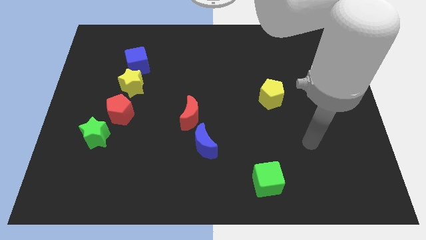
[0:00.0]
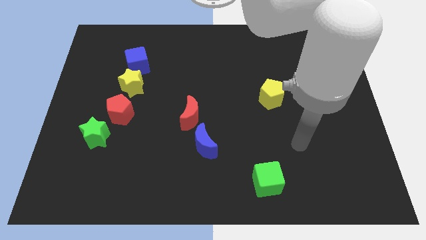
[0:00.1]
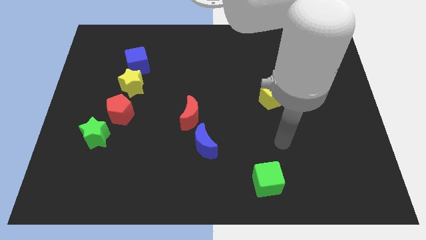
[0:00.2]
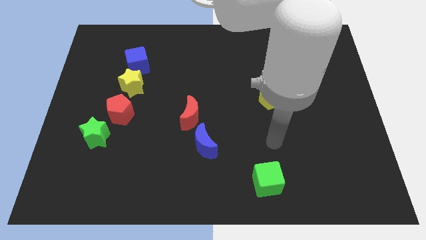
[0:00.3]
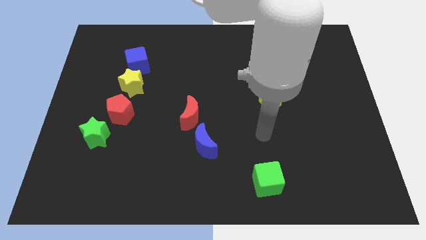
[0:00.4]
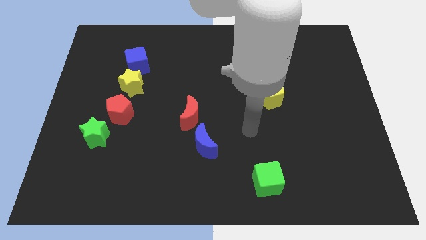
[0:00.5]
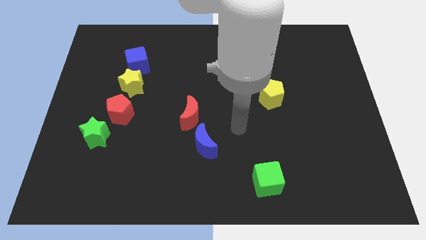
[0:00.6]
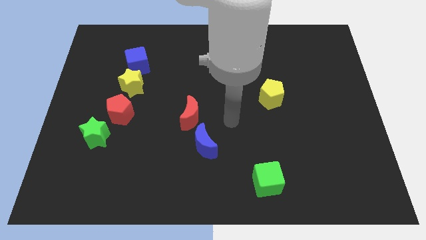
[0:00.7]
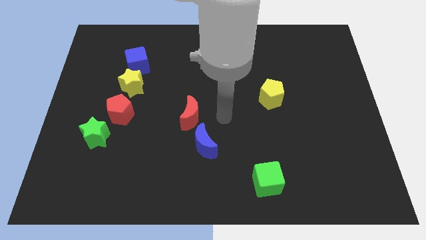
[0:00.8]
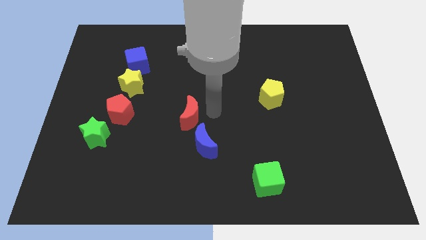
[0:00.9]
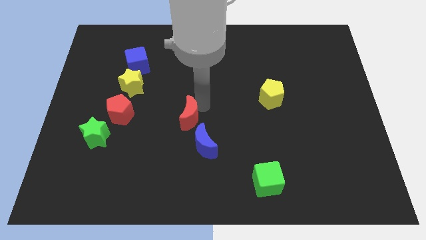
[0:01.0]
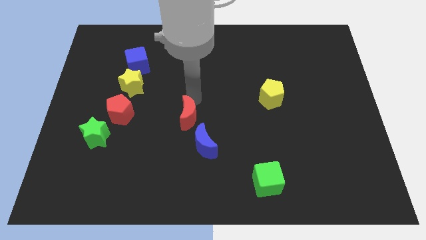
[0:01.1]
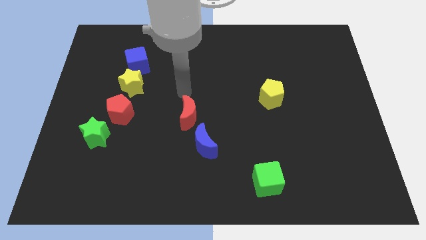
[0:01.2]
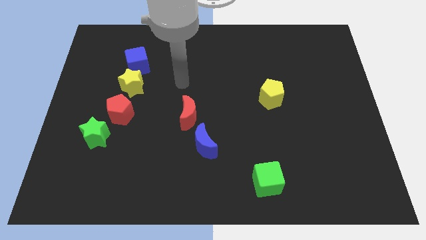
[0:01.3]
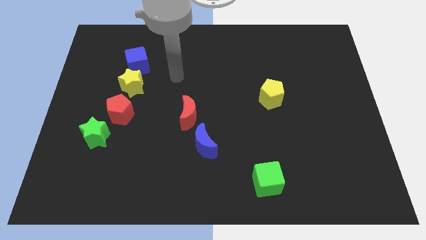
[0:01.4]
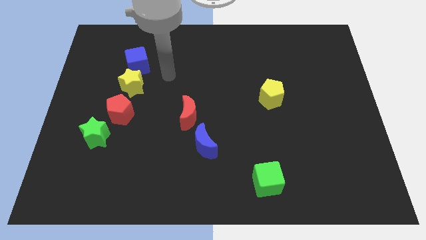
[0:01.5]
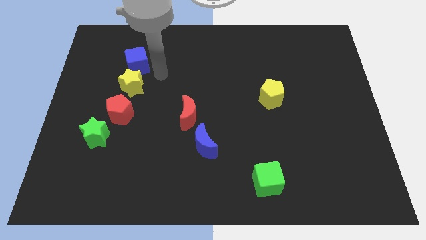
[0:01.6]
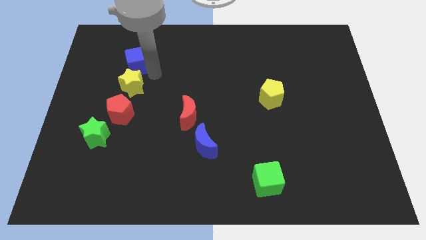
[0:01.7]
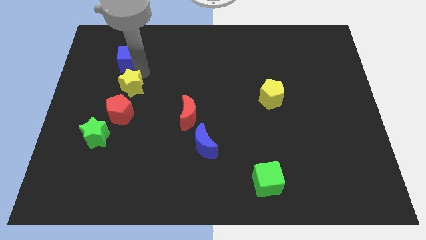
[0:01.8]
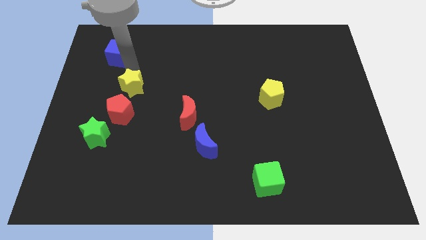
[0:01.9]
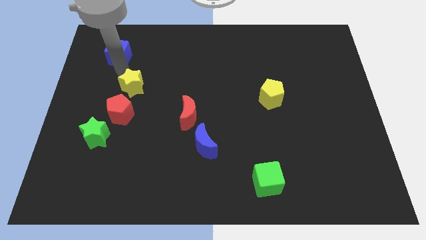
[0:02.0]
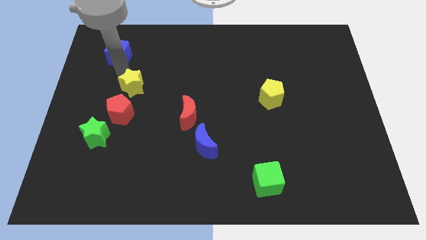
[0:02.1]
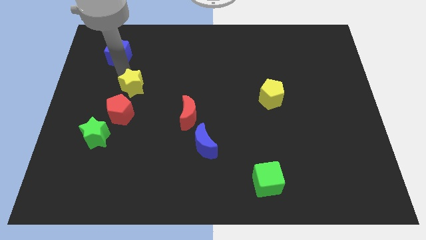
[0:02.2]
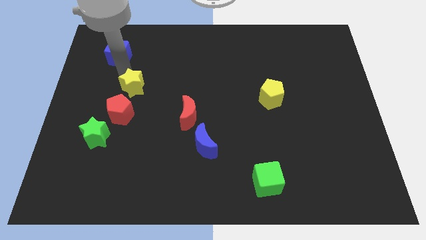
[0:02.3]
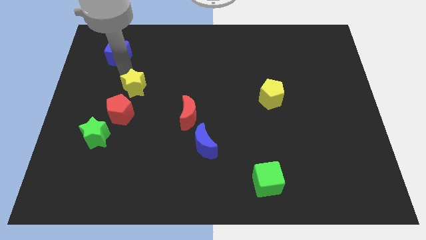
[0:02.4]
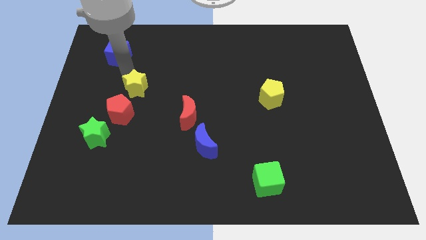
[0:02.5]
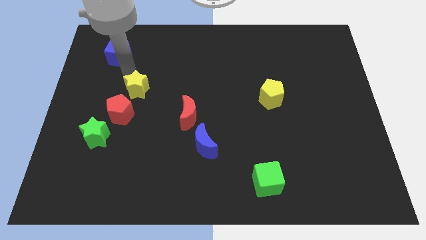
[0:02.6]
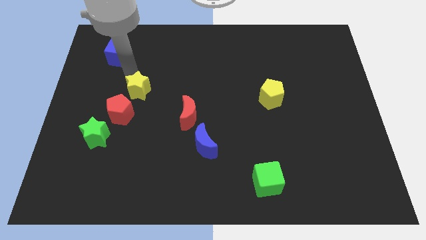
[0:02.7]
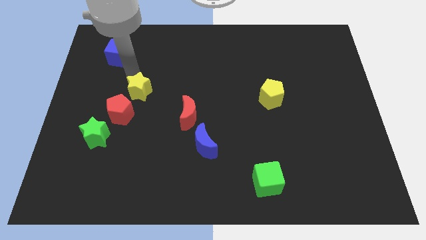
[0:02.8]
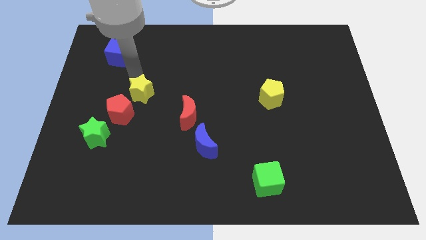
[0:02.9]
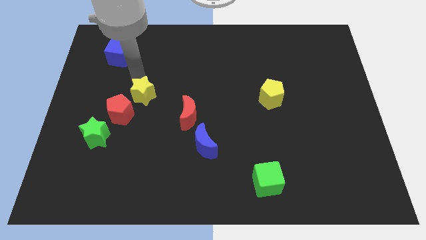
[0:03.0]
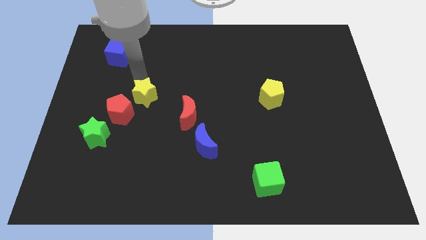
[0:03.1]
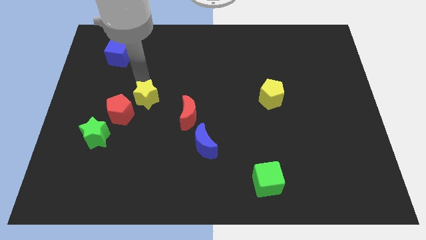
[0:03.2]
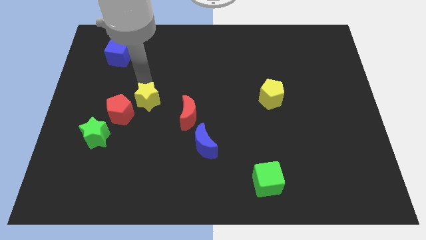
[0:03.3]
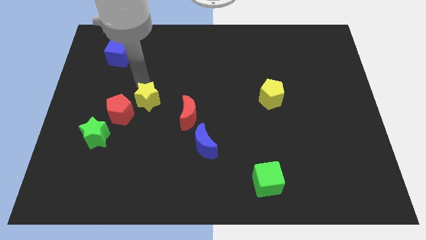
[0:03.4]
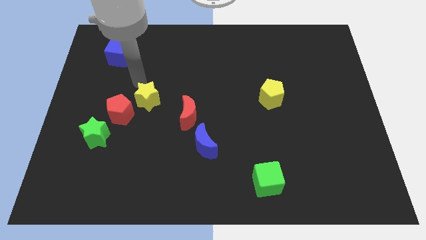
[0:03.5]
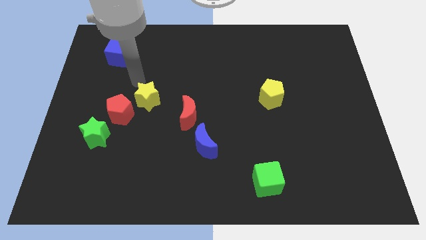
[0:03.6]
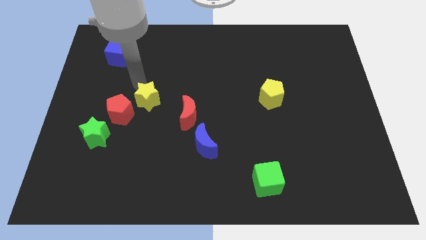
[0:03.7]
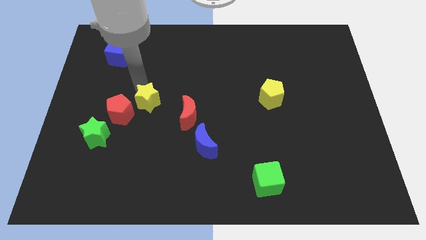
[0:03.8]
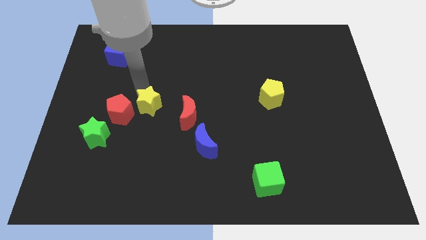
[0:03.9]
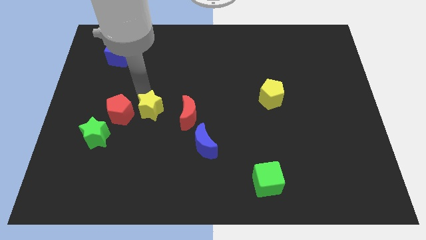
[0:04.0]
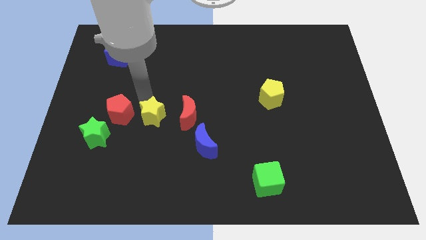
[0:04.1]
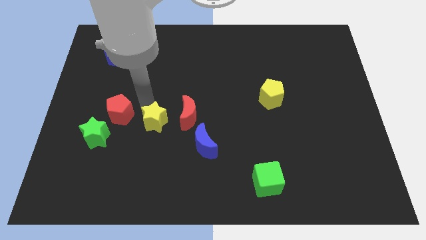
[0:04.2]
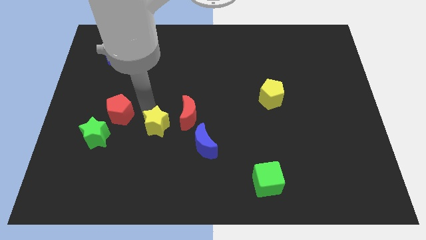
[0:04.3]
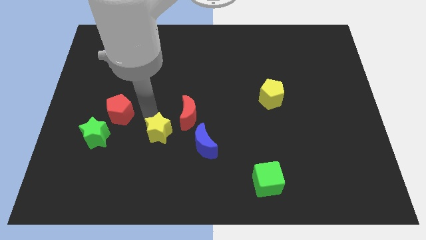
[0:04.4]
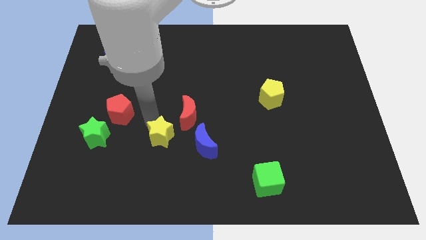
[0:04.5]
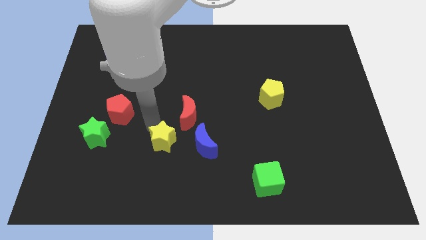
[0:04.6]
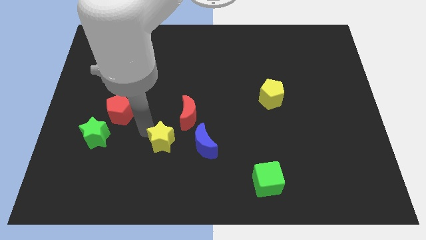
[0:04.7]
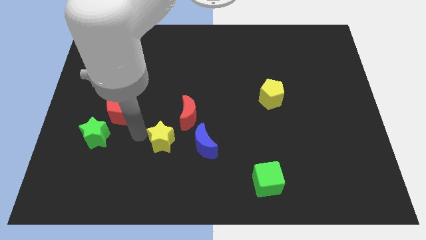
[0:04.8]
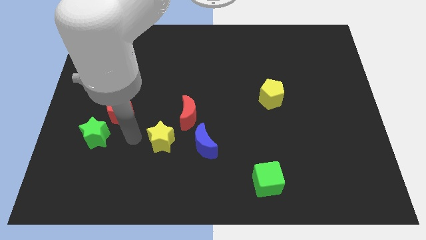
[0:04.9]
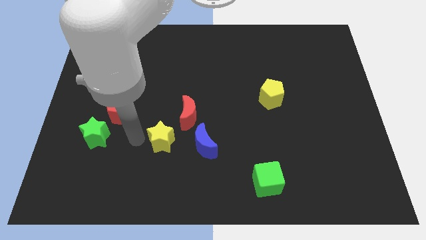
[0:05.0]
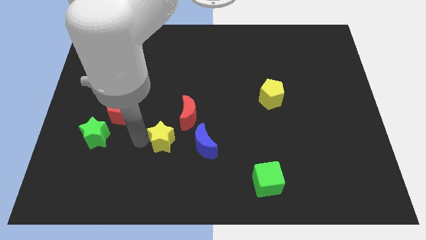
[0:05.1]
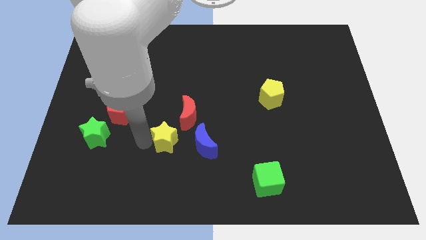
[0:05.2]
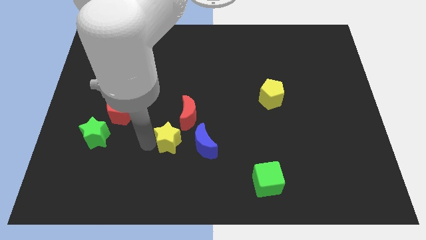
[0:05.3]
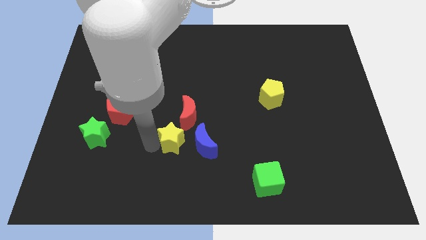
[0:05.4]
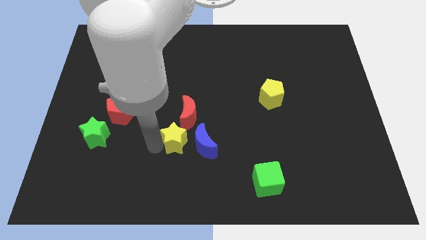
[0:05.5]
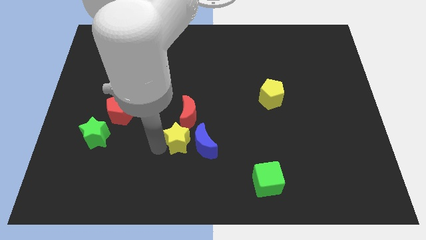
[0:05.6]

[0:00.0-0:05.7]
push the yellow star to the blue moon

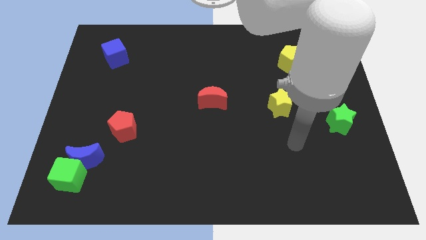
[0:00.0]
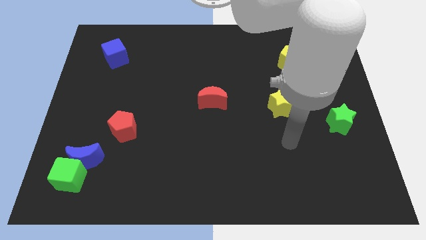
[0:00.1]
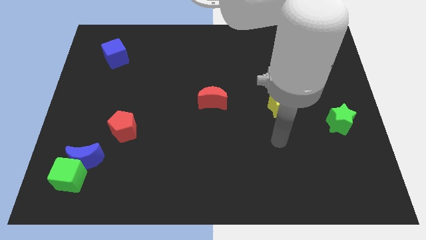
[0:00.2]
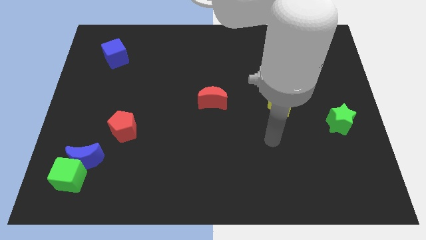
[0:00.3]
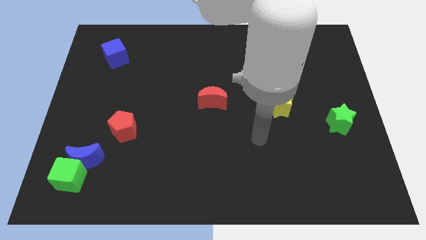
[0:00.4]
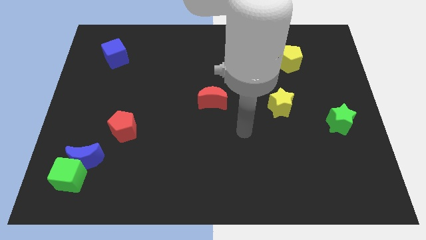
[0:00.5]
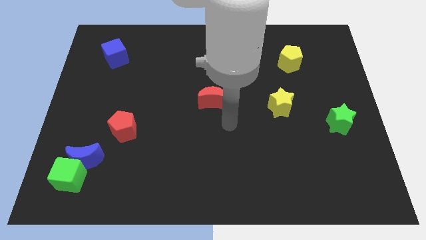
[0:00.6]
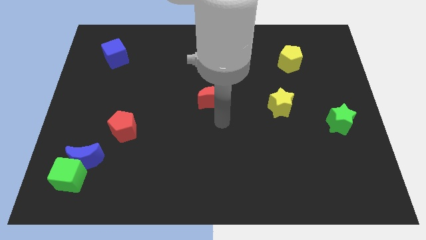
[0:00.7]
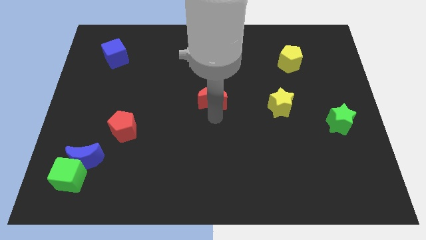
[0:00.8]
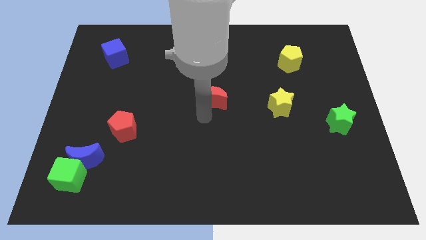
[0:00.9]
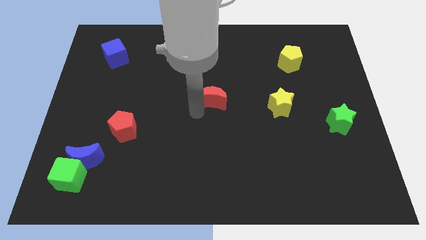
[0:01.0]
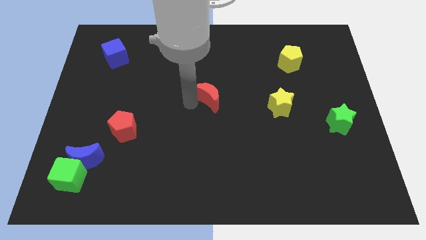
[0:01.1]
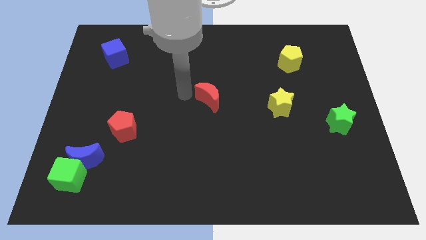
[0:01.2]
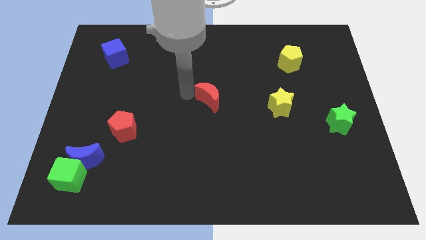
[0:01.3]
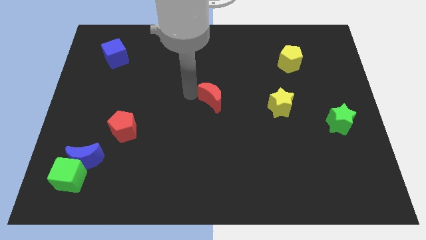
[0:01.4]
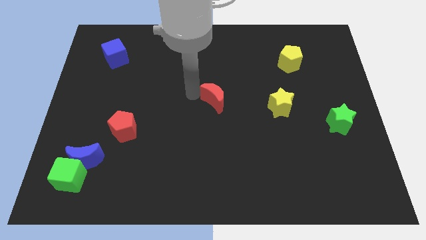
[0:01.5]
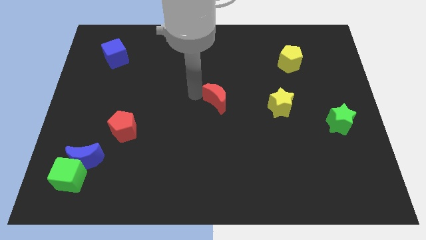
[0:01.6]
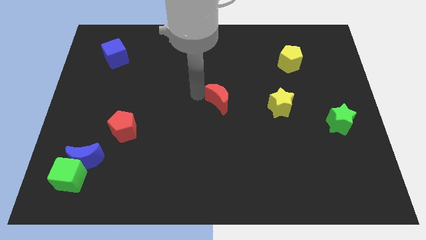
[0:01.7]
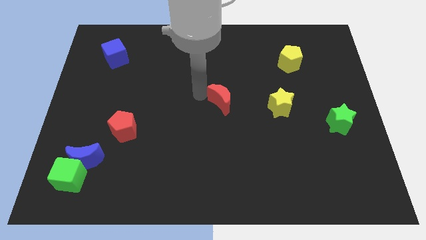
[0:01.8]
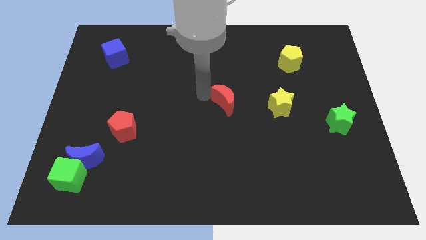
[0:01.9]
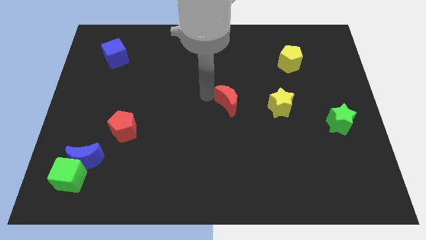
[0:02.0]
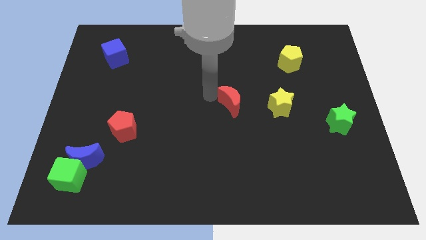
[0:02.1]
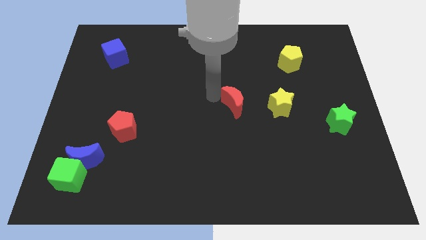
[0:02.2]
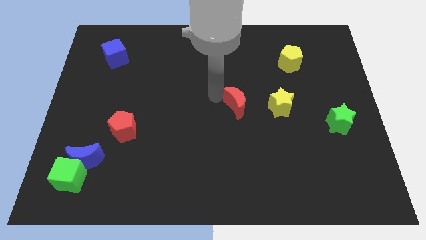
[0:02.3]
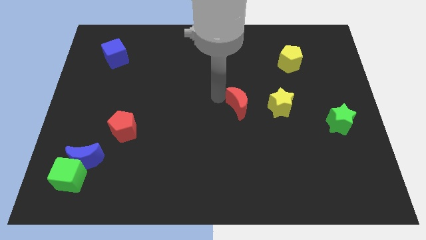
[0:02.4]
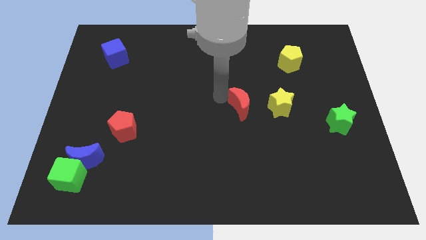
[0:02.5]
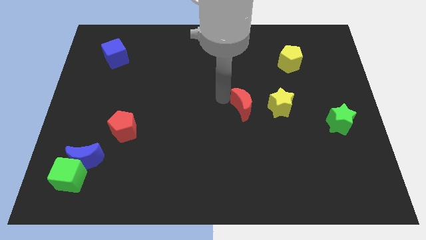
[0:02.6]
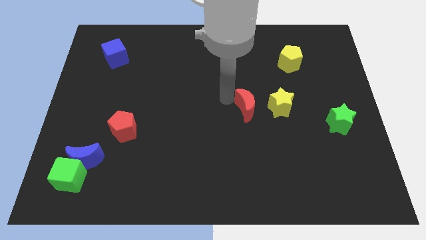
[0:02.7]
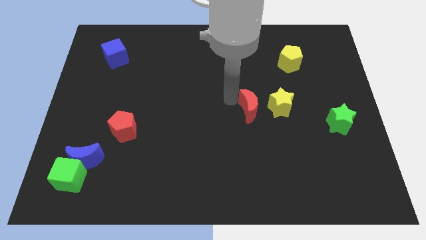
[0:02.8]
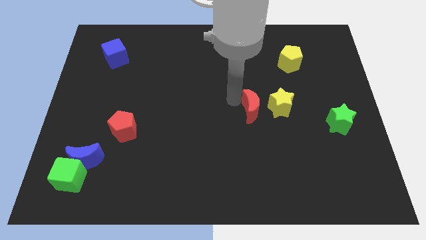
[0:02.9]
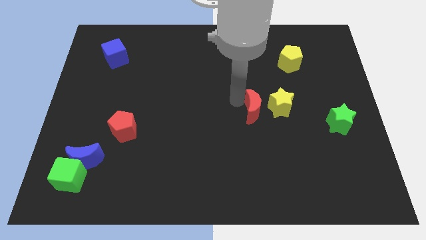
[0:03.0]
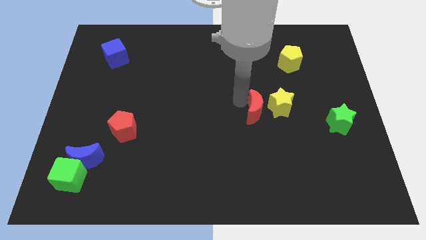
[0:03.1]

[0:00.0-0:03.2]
slide the red moon to the yellow star
